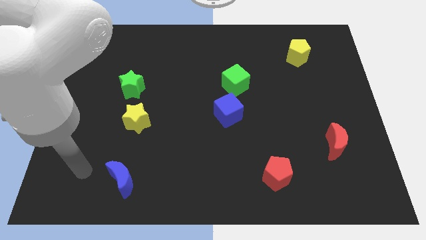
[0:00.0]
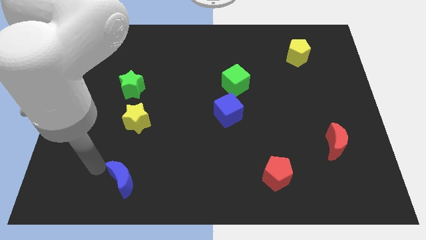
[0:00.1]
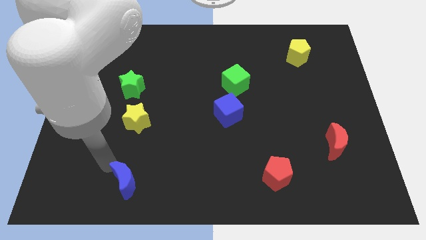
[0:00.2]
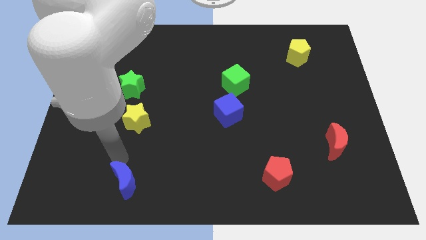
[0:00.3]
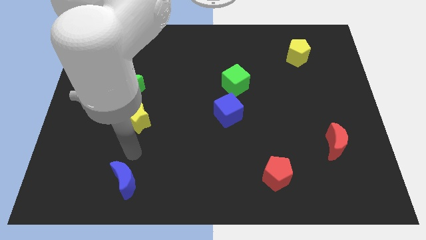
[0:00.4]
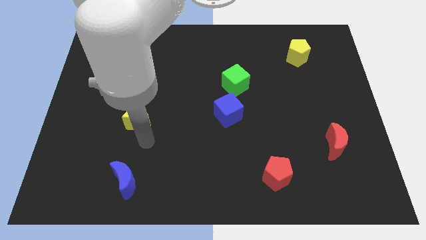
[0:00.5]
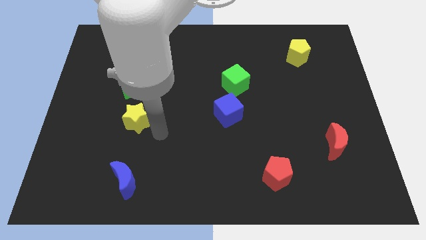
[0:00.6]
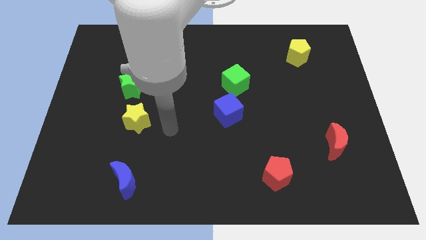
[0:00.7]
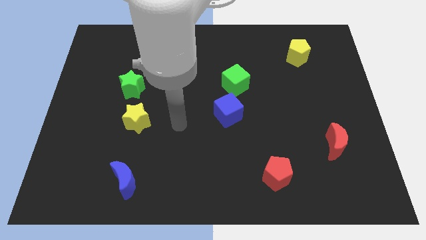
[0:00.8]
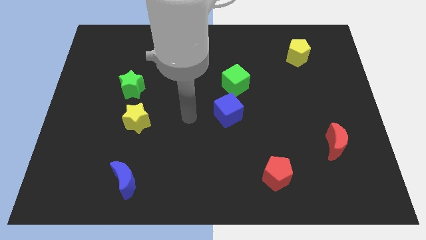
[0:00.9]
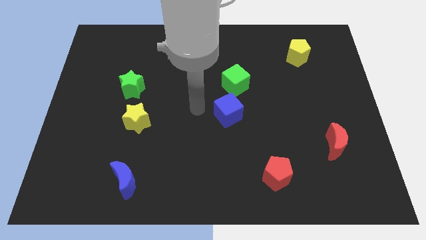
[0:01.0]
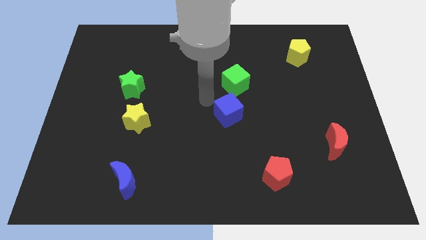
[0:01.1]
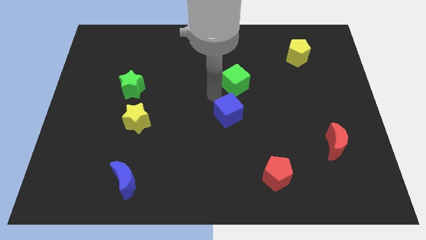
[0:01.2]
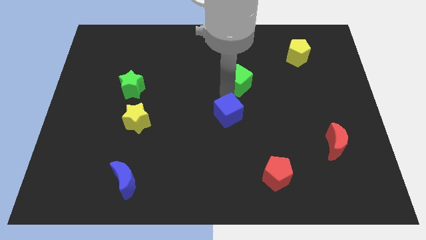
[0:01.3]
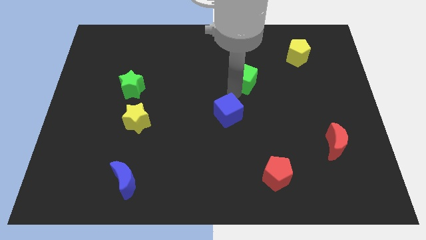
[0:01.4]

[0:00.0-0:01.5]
separate the blue cube from the green cube

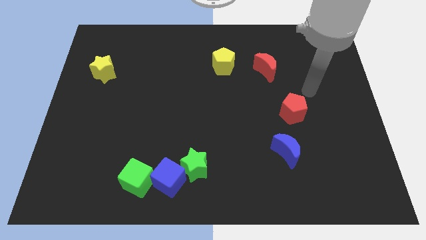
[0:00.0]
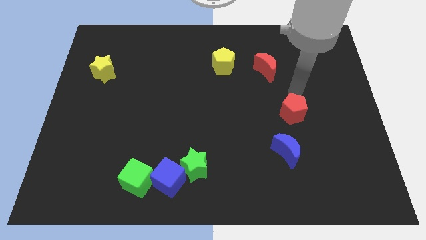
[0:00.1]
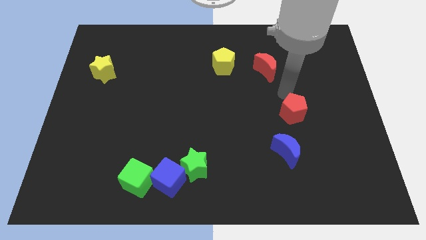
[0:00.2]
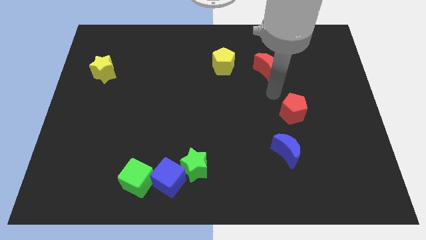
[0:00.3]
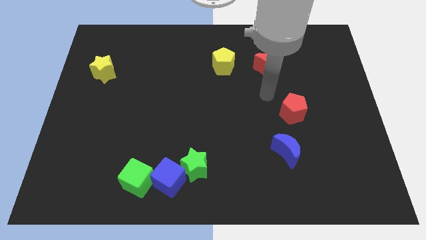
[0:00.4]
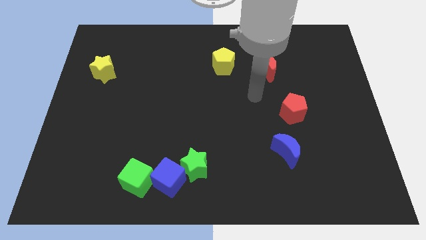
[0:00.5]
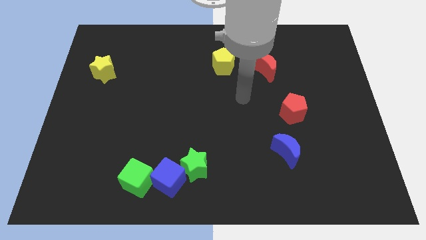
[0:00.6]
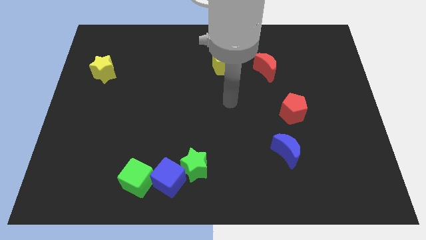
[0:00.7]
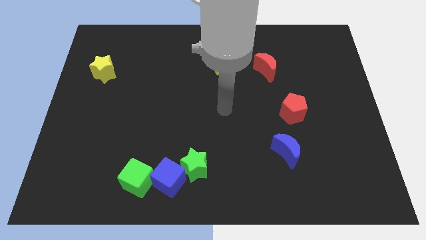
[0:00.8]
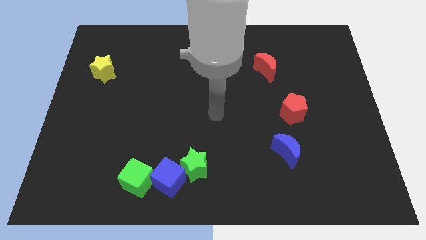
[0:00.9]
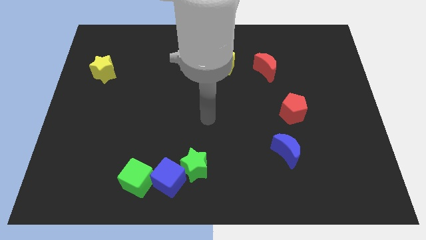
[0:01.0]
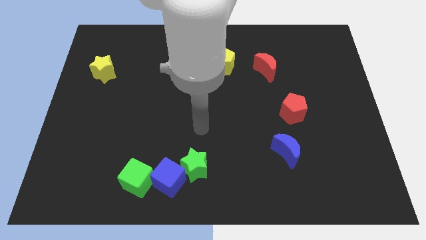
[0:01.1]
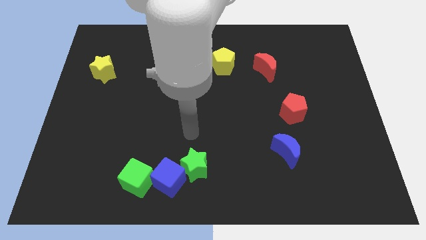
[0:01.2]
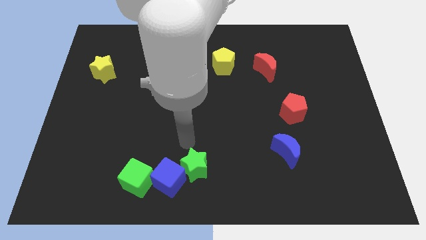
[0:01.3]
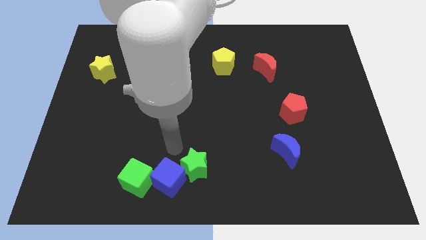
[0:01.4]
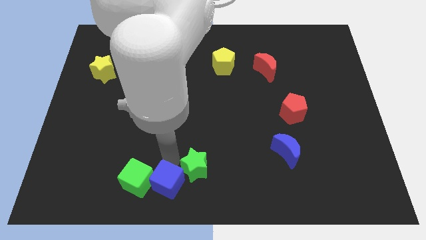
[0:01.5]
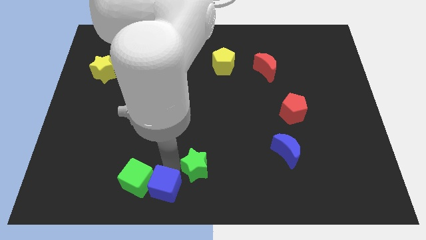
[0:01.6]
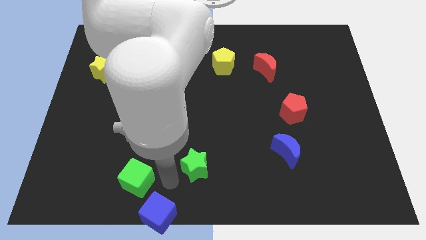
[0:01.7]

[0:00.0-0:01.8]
pull the green star apart from the blue cube

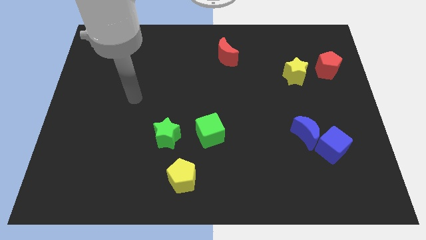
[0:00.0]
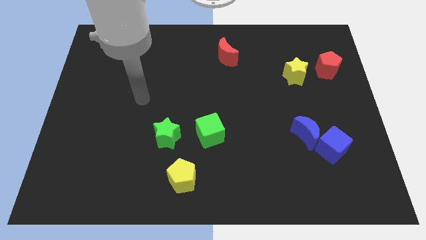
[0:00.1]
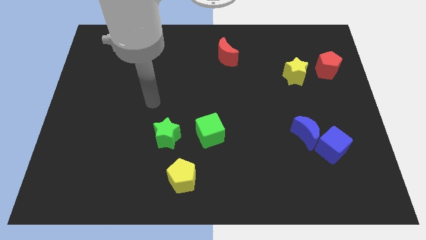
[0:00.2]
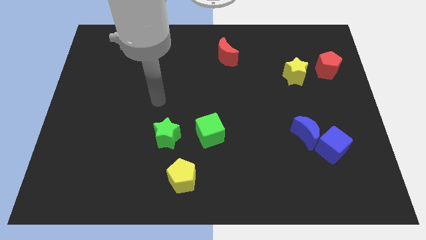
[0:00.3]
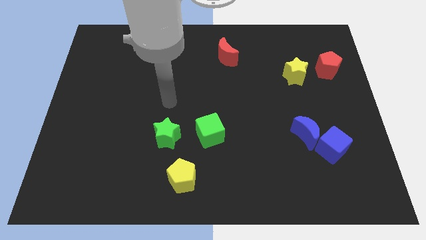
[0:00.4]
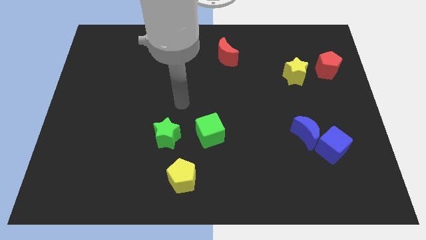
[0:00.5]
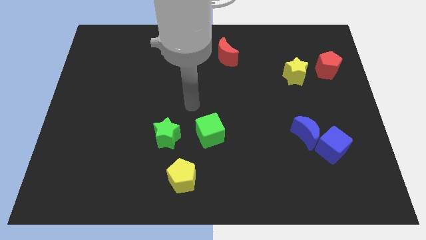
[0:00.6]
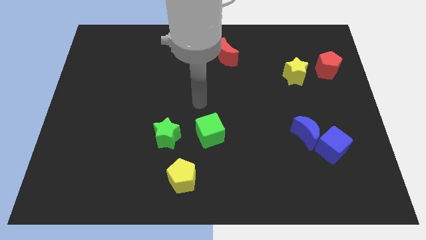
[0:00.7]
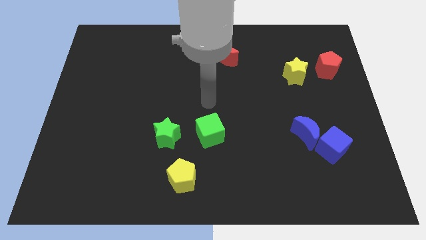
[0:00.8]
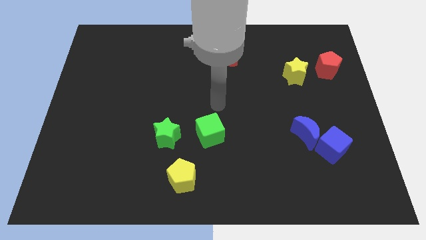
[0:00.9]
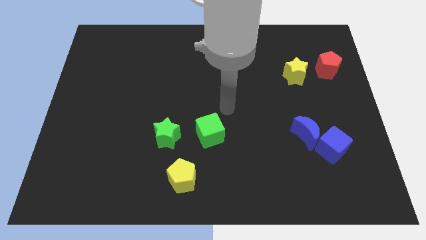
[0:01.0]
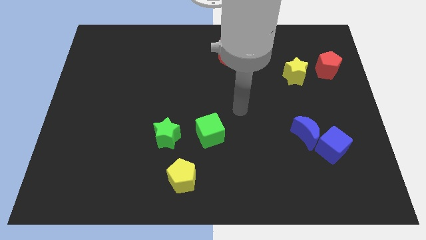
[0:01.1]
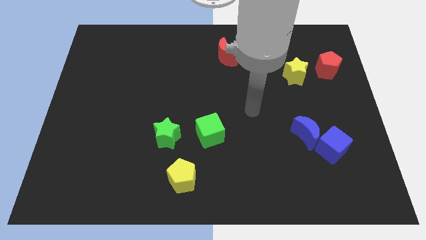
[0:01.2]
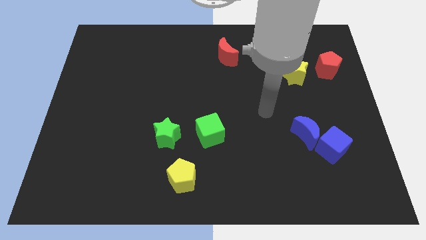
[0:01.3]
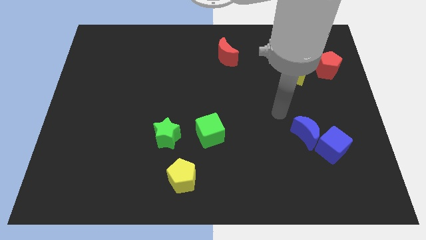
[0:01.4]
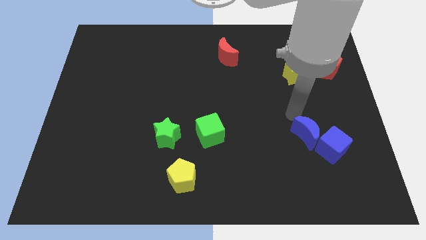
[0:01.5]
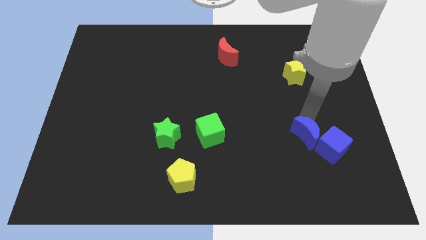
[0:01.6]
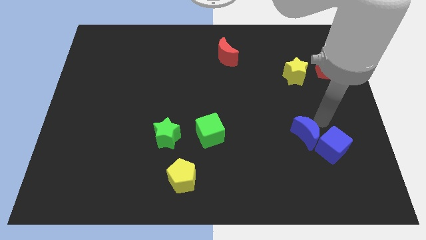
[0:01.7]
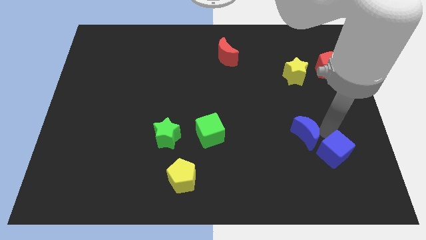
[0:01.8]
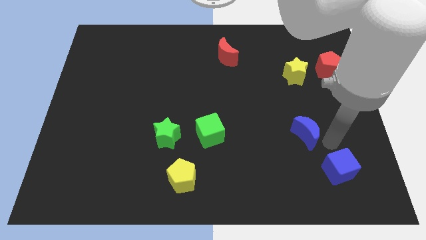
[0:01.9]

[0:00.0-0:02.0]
separate the blue moon from the blue cube

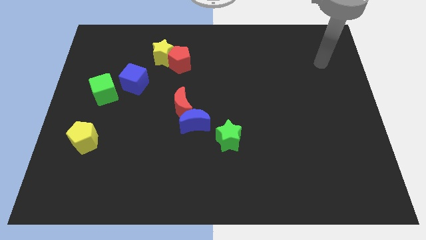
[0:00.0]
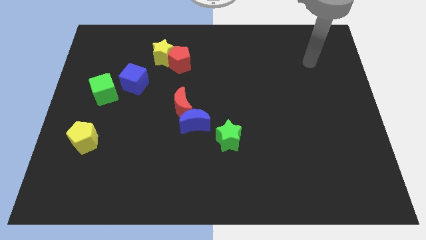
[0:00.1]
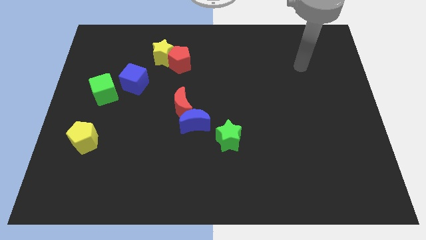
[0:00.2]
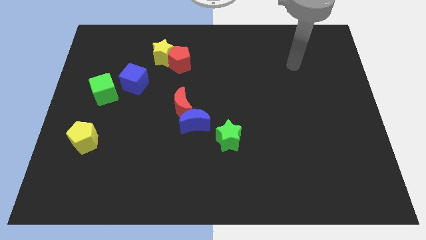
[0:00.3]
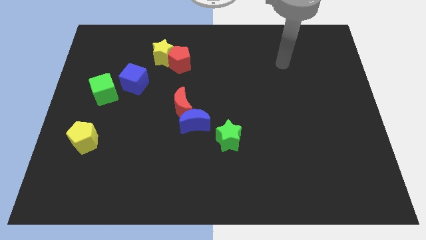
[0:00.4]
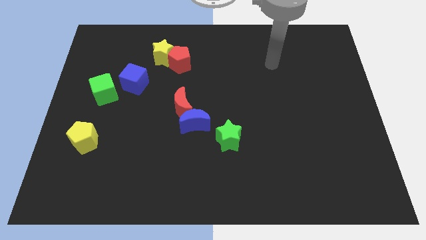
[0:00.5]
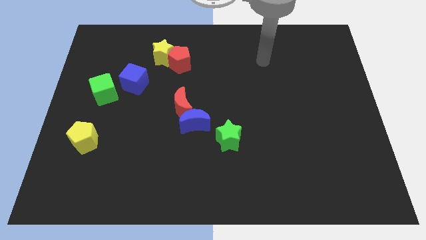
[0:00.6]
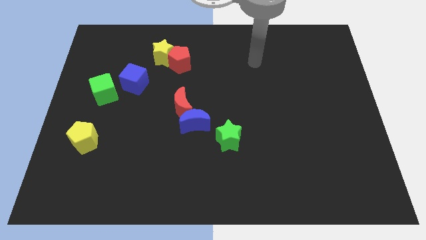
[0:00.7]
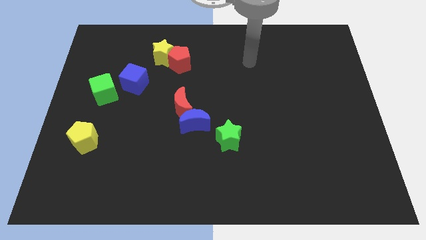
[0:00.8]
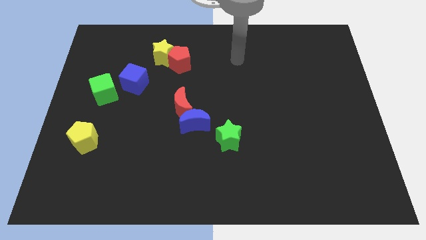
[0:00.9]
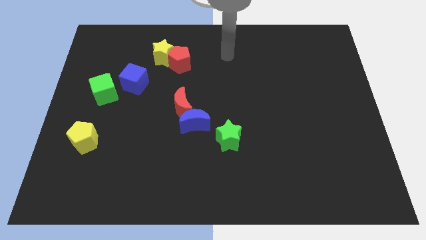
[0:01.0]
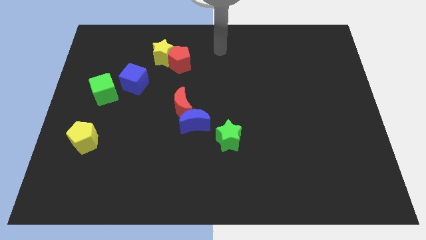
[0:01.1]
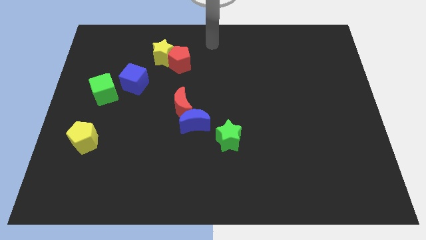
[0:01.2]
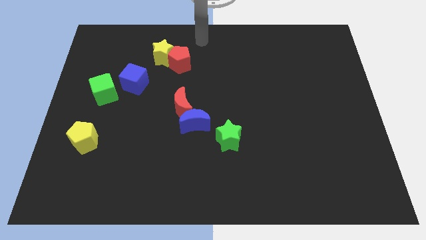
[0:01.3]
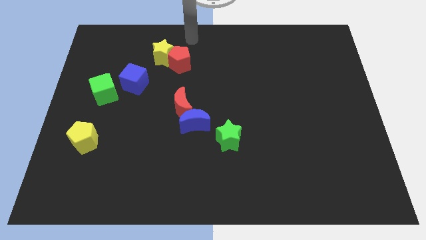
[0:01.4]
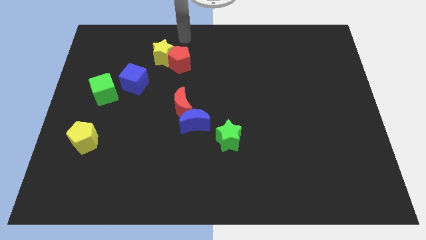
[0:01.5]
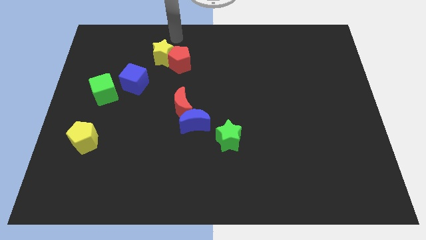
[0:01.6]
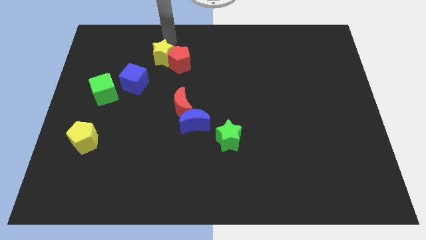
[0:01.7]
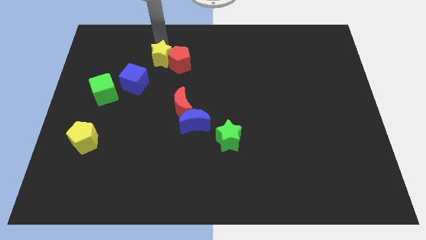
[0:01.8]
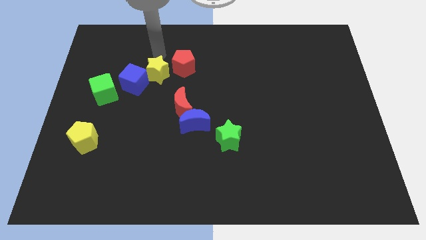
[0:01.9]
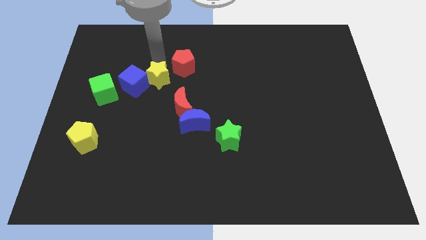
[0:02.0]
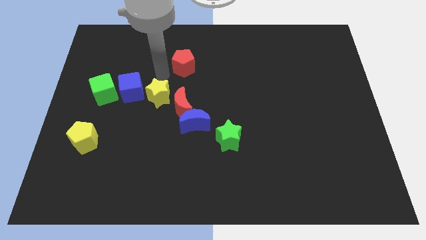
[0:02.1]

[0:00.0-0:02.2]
separate the red pentagon from the yellow star

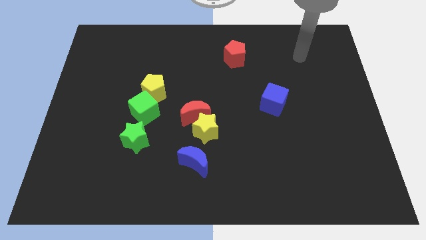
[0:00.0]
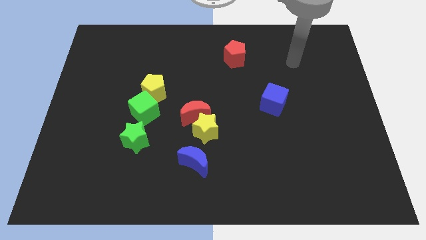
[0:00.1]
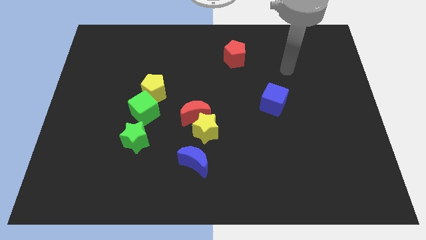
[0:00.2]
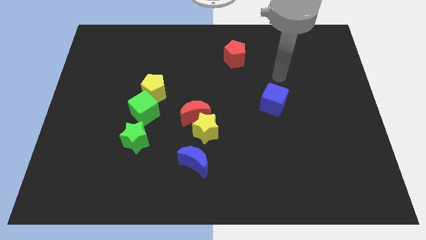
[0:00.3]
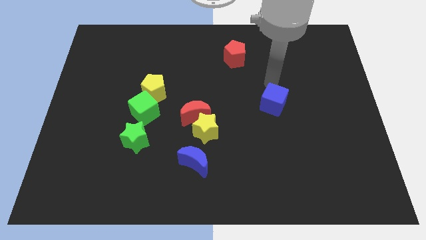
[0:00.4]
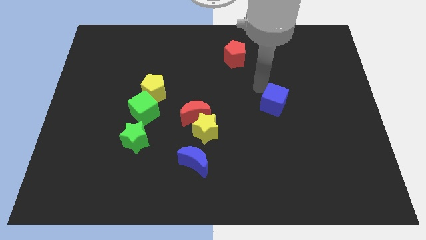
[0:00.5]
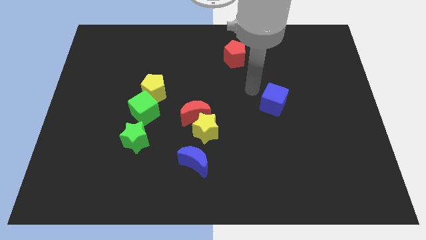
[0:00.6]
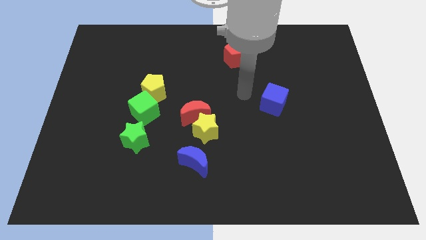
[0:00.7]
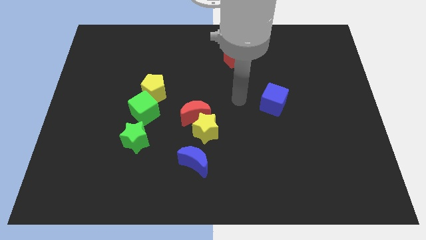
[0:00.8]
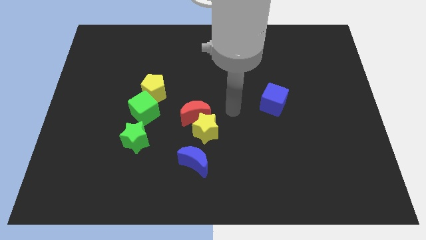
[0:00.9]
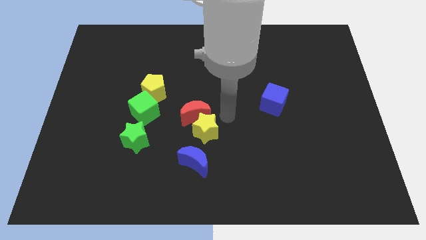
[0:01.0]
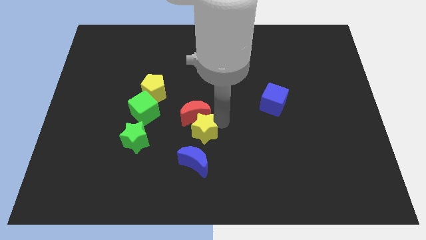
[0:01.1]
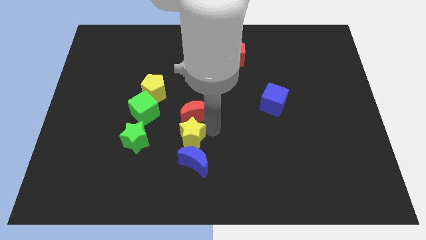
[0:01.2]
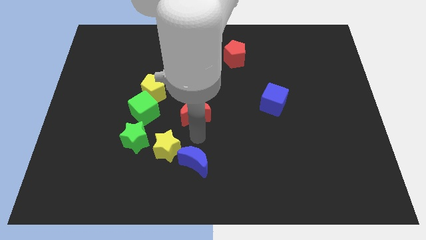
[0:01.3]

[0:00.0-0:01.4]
separate the red moon from the yellow star

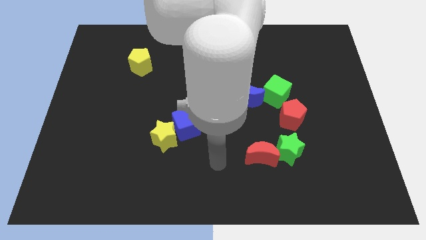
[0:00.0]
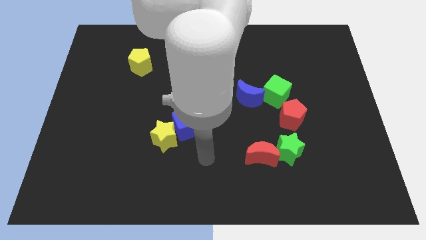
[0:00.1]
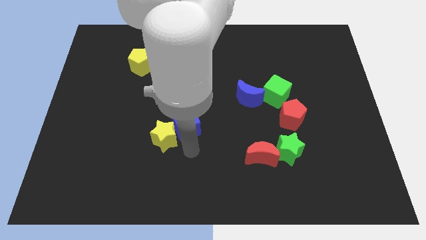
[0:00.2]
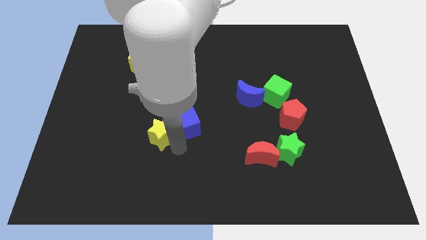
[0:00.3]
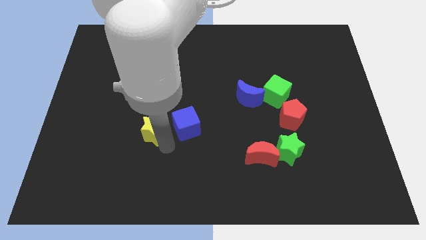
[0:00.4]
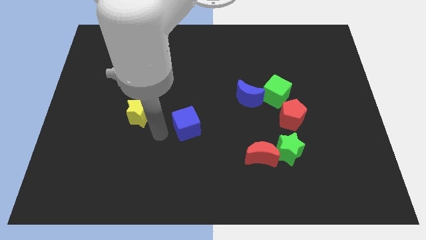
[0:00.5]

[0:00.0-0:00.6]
move the blue cube away from the yellow star
